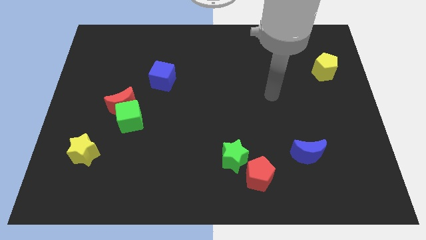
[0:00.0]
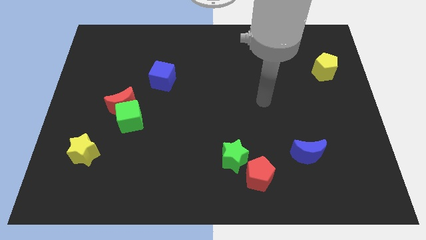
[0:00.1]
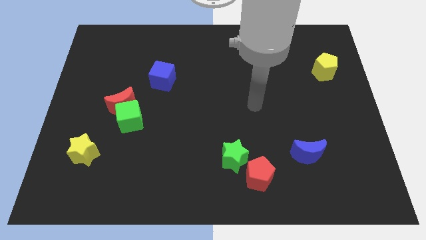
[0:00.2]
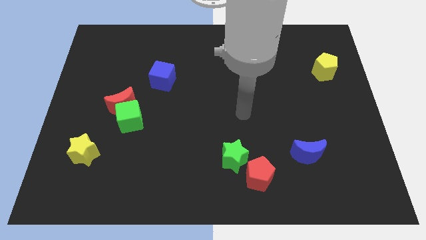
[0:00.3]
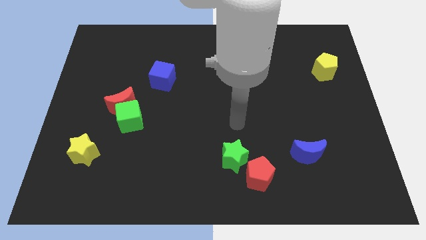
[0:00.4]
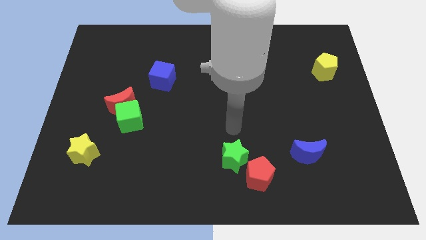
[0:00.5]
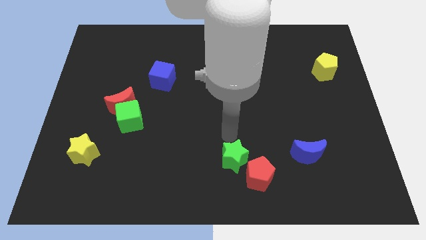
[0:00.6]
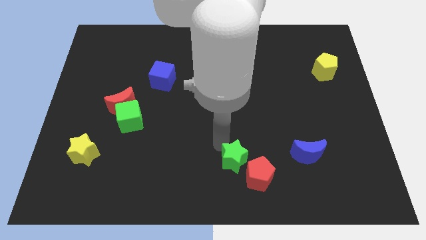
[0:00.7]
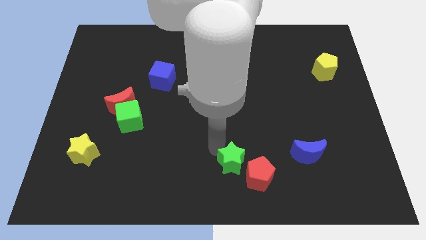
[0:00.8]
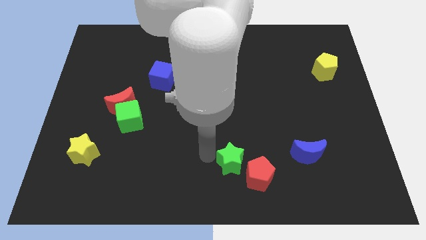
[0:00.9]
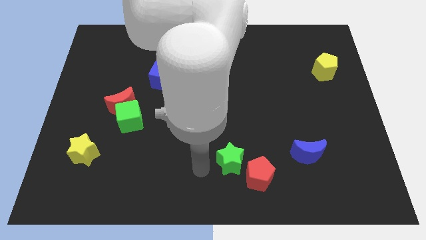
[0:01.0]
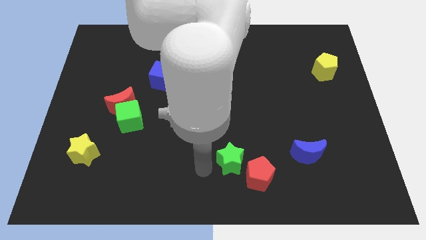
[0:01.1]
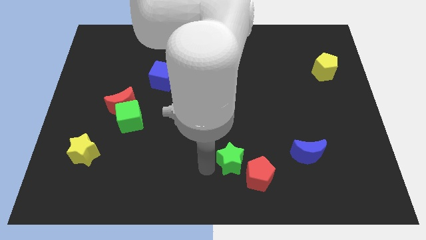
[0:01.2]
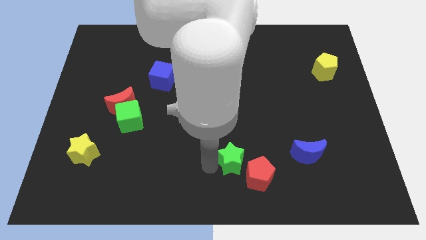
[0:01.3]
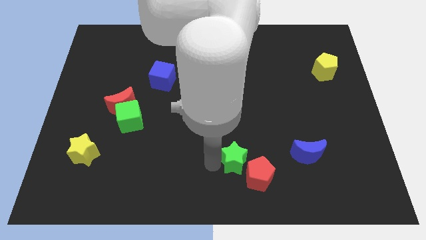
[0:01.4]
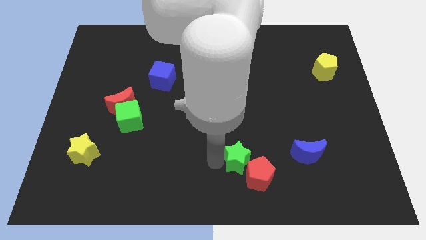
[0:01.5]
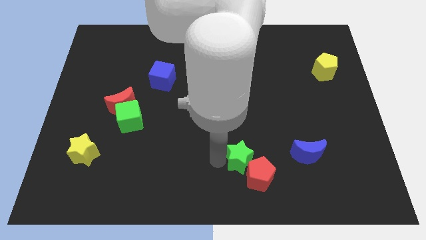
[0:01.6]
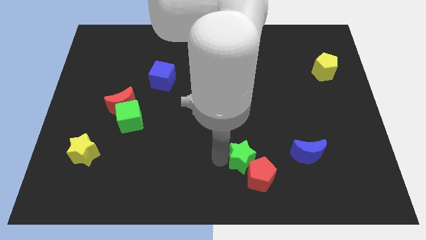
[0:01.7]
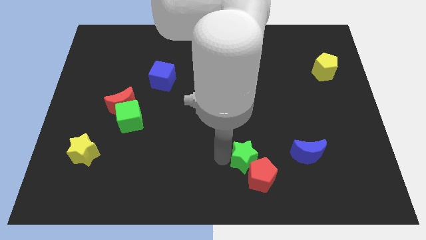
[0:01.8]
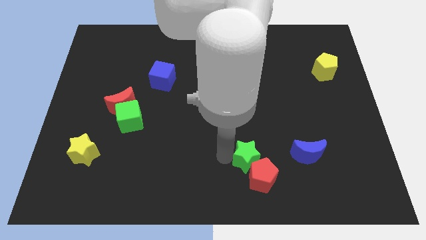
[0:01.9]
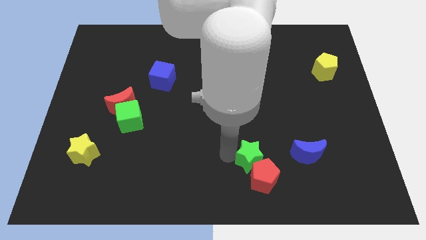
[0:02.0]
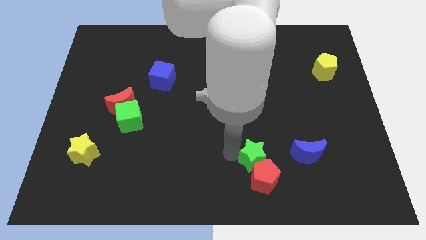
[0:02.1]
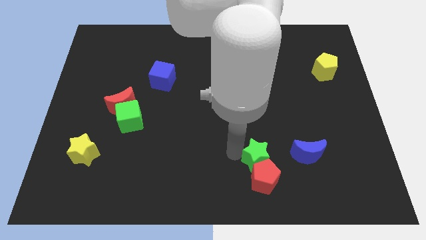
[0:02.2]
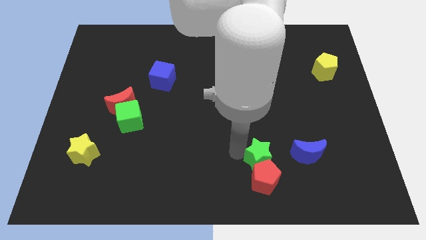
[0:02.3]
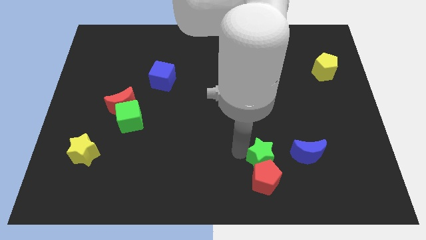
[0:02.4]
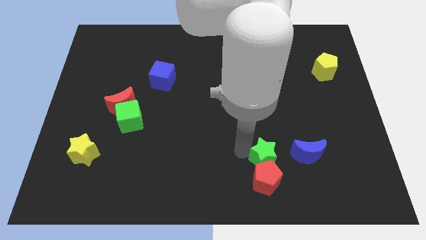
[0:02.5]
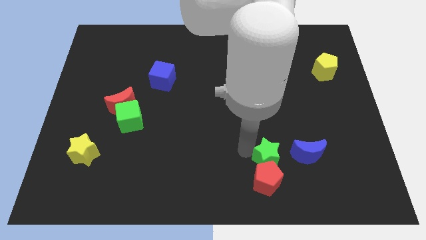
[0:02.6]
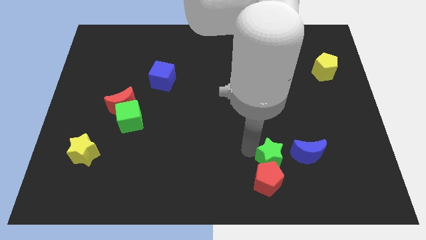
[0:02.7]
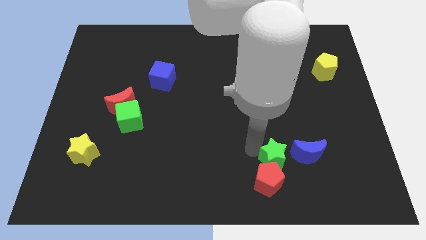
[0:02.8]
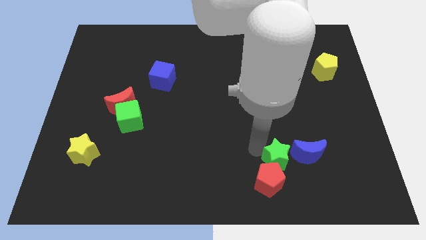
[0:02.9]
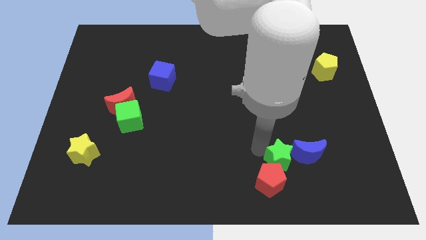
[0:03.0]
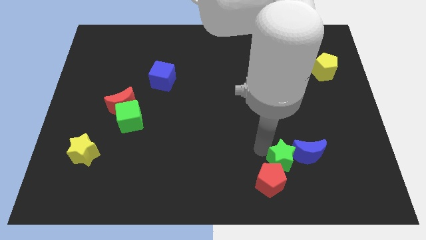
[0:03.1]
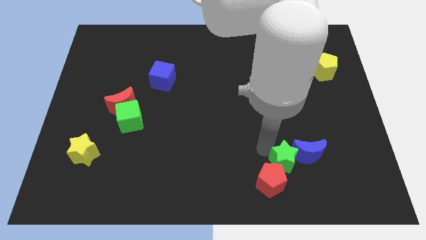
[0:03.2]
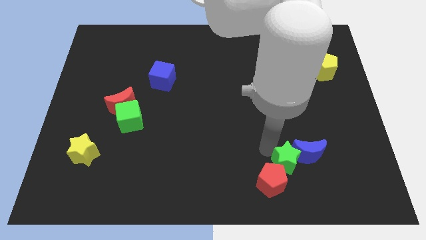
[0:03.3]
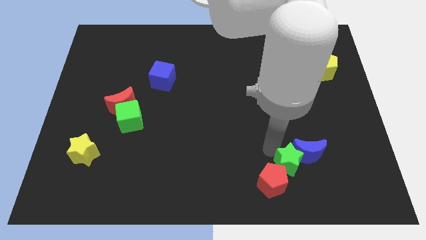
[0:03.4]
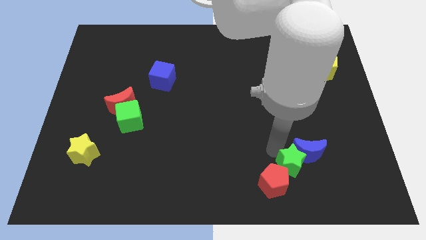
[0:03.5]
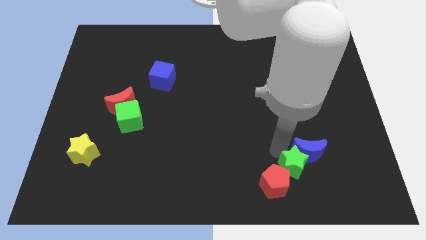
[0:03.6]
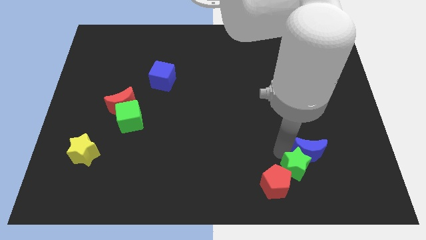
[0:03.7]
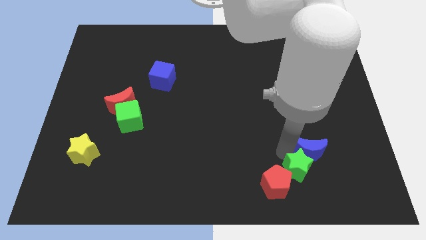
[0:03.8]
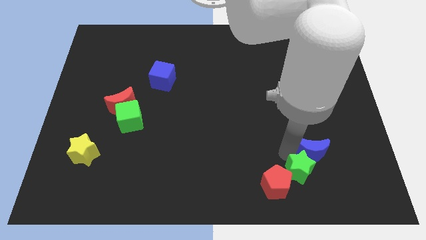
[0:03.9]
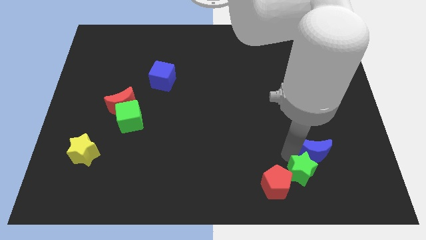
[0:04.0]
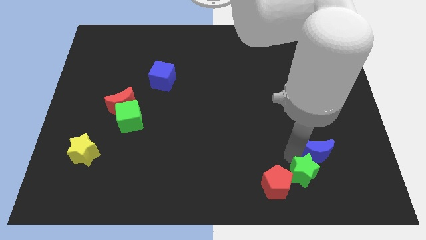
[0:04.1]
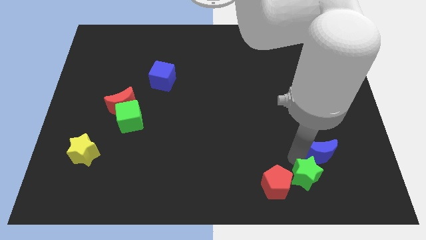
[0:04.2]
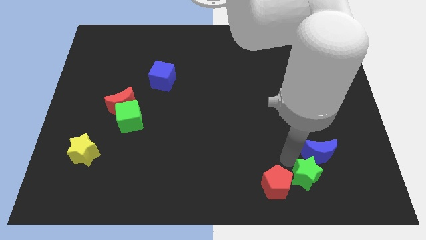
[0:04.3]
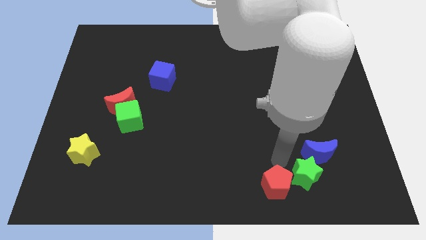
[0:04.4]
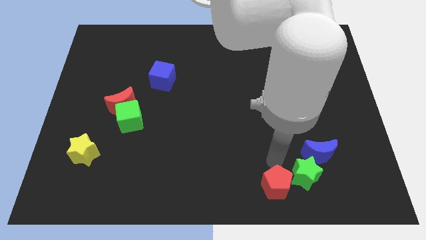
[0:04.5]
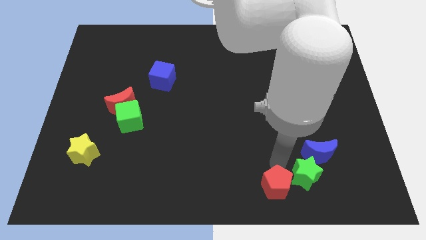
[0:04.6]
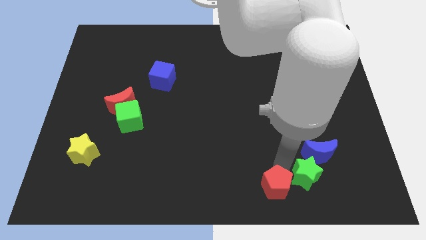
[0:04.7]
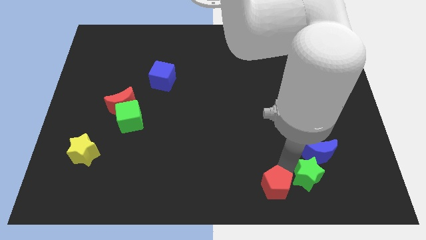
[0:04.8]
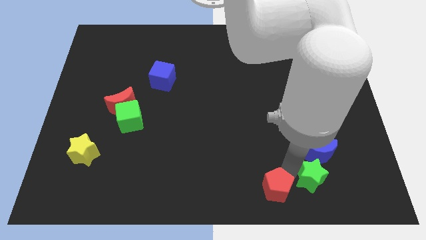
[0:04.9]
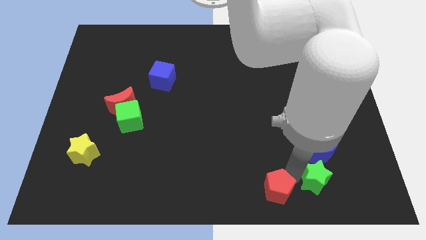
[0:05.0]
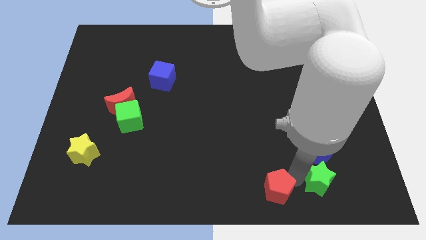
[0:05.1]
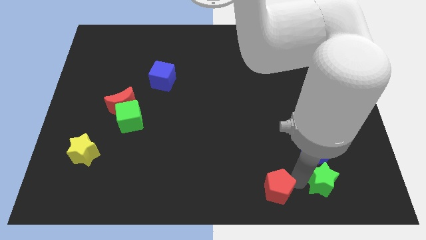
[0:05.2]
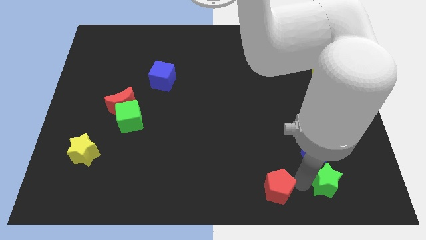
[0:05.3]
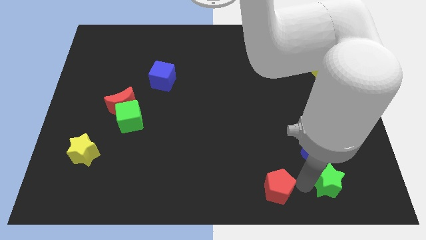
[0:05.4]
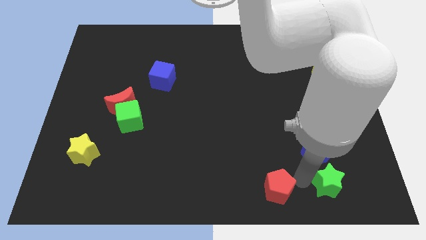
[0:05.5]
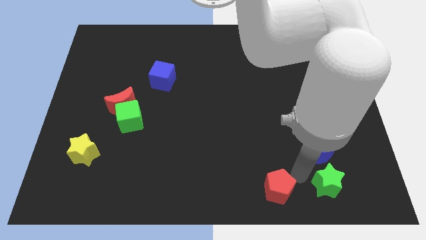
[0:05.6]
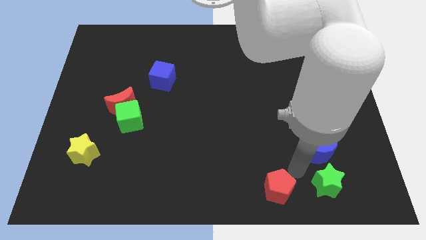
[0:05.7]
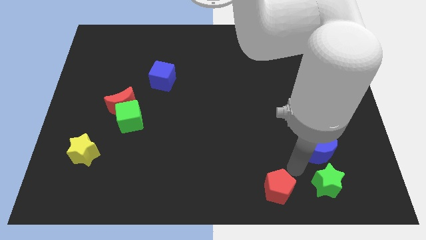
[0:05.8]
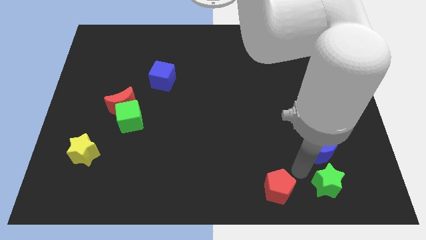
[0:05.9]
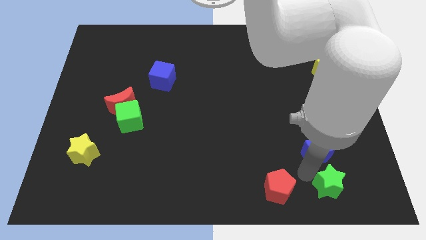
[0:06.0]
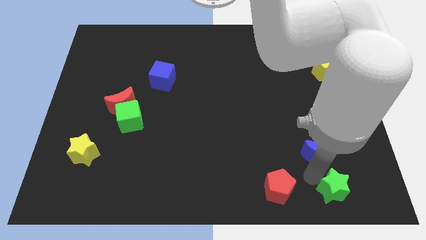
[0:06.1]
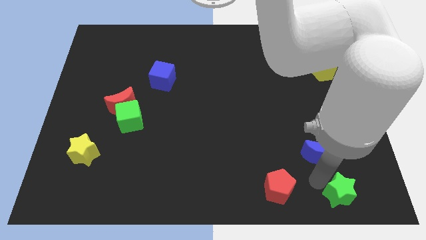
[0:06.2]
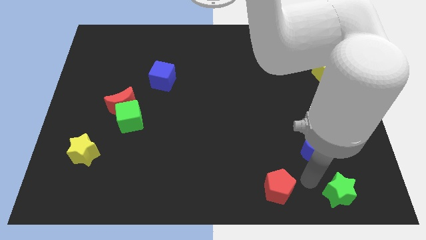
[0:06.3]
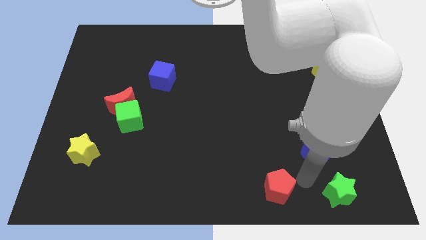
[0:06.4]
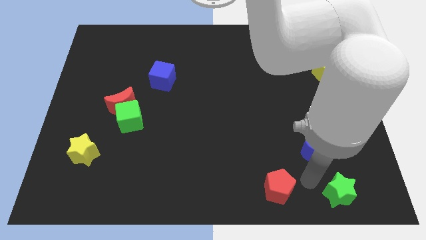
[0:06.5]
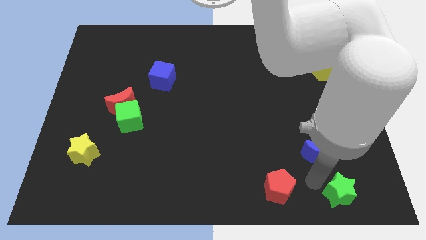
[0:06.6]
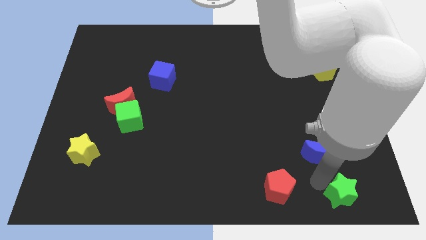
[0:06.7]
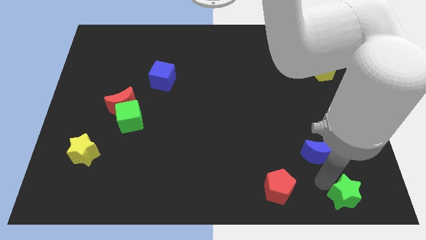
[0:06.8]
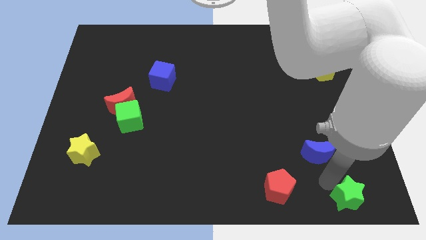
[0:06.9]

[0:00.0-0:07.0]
slide the green star to the lower right corner
